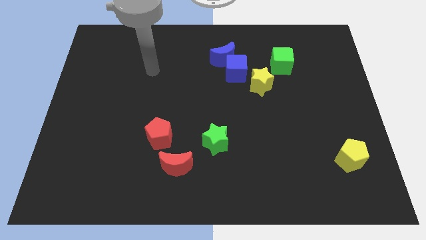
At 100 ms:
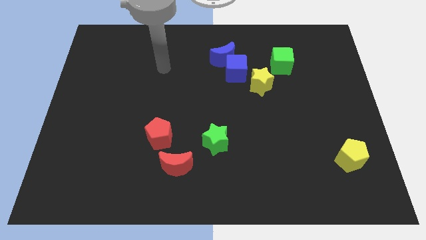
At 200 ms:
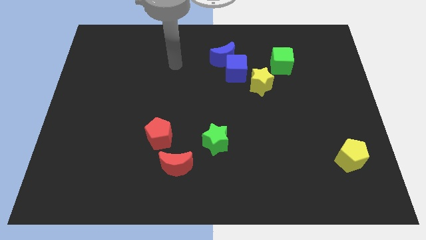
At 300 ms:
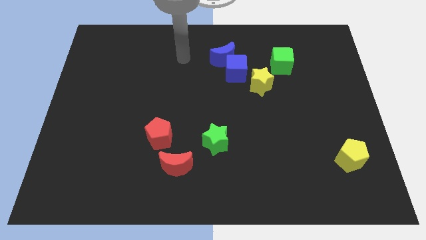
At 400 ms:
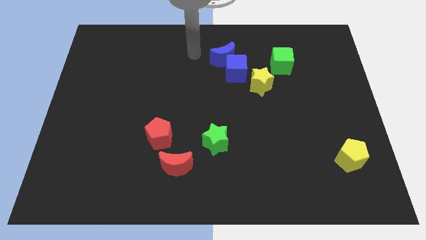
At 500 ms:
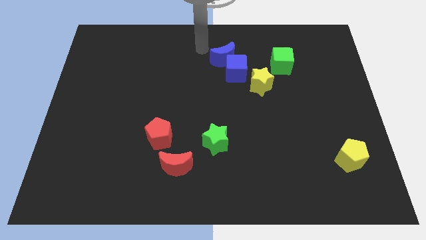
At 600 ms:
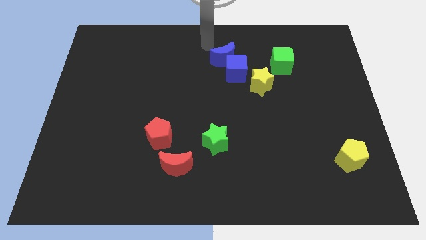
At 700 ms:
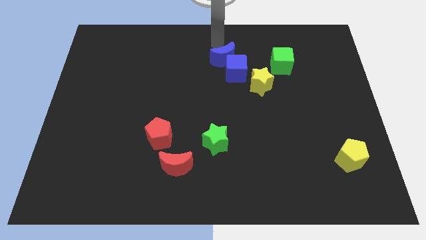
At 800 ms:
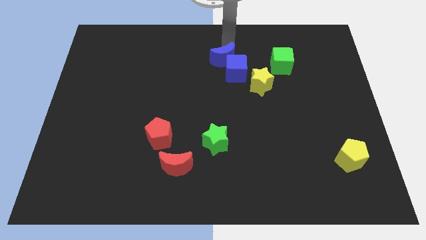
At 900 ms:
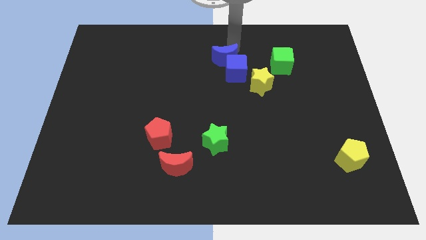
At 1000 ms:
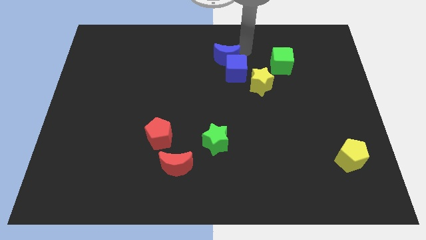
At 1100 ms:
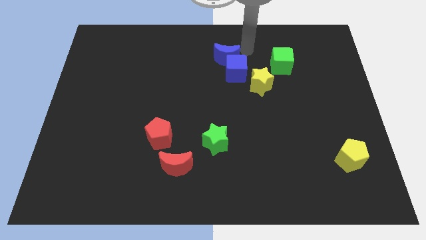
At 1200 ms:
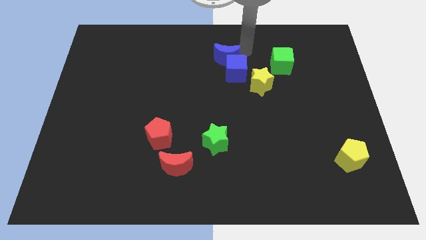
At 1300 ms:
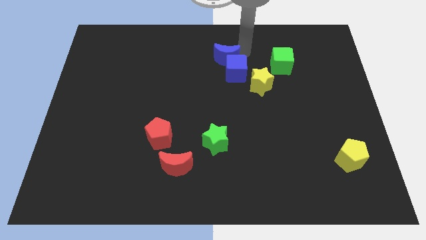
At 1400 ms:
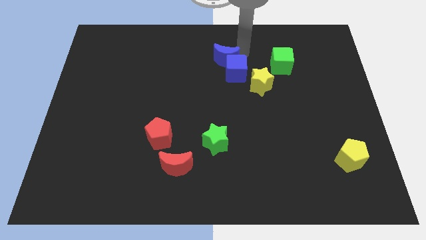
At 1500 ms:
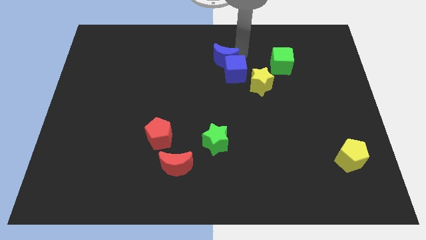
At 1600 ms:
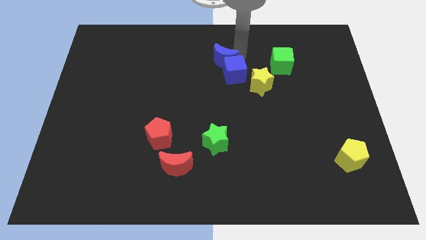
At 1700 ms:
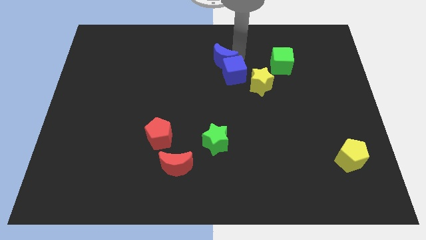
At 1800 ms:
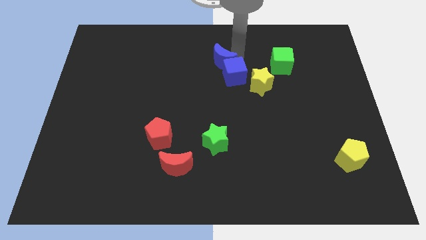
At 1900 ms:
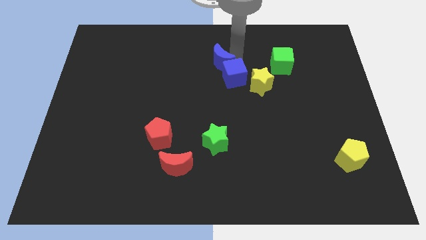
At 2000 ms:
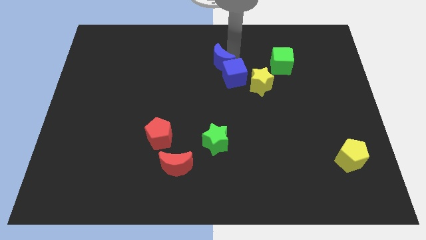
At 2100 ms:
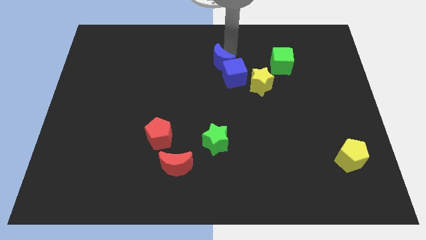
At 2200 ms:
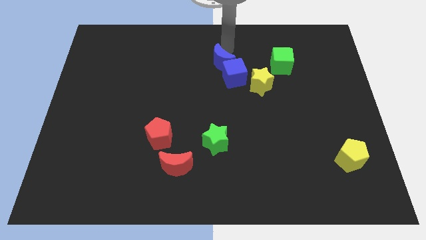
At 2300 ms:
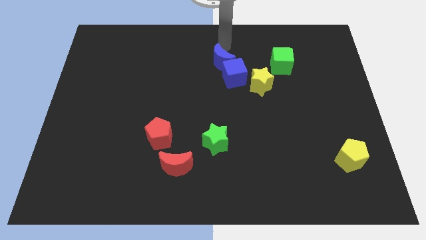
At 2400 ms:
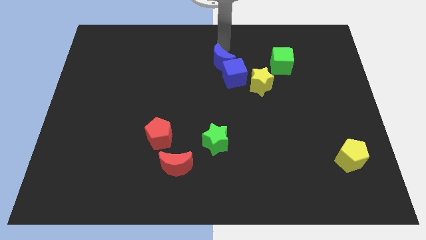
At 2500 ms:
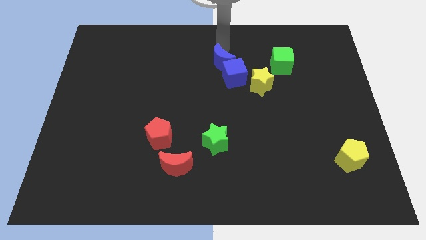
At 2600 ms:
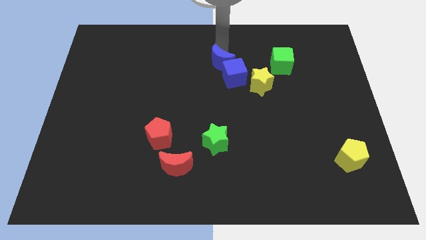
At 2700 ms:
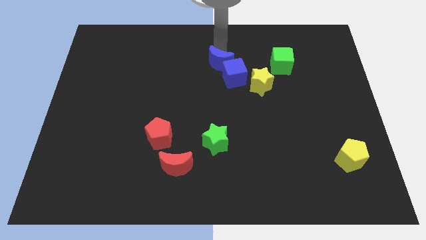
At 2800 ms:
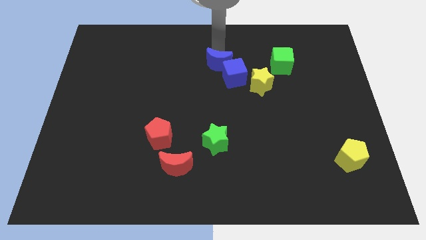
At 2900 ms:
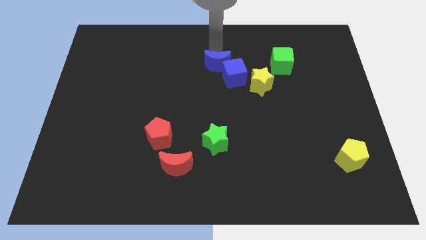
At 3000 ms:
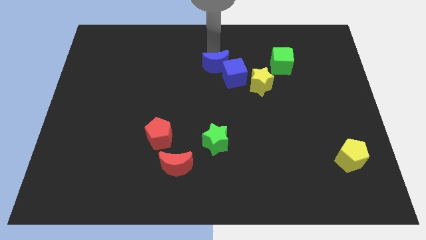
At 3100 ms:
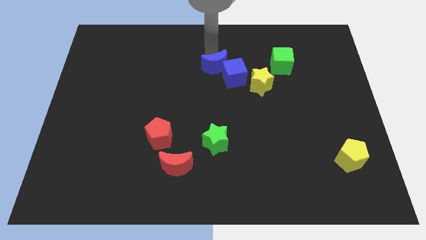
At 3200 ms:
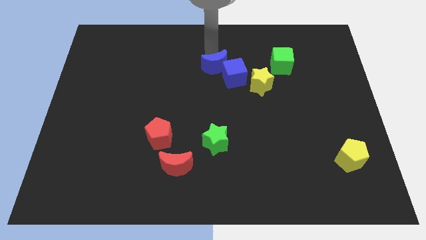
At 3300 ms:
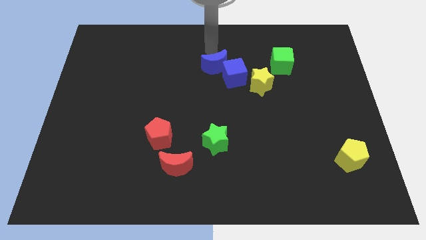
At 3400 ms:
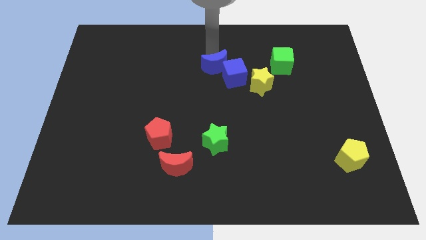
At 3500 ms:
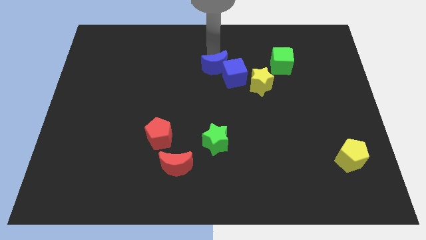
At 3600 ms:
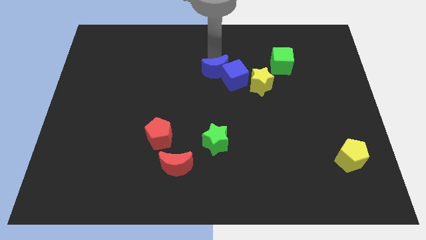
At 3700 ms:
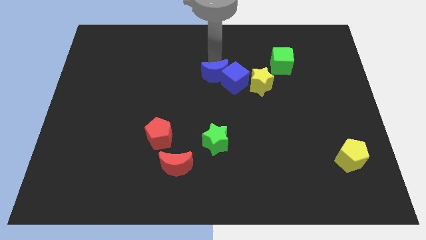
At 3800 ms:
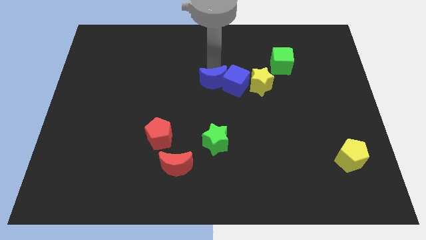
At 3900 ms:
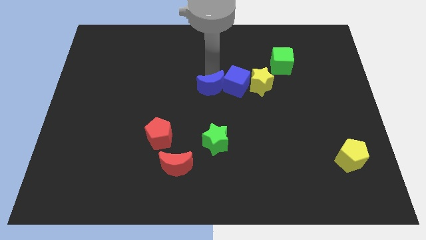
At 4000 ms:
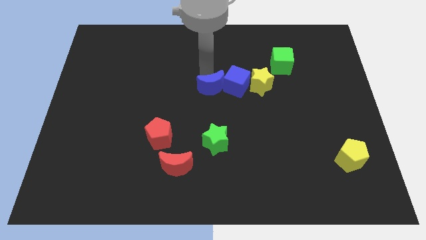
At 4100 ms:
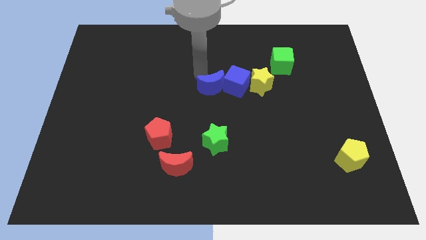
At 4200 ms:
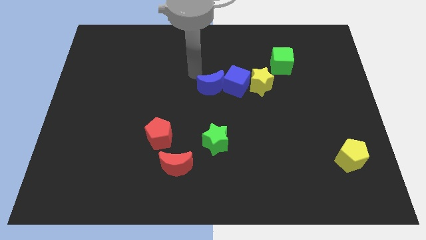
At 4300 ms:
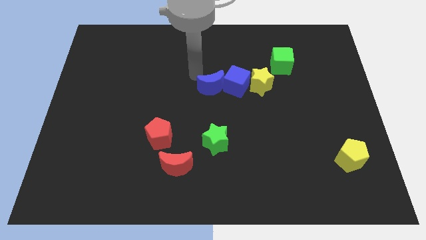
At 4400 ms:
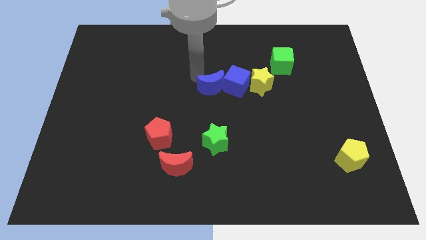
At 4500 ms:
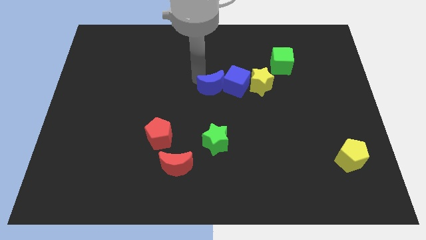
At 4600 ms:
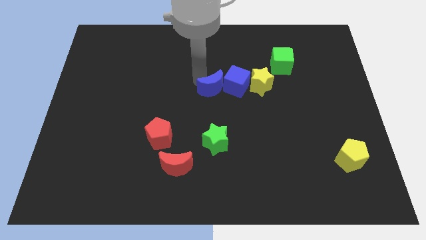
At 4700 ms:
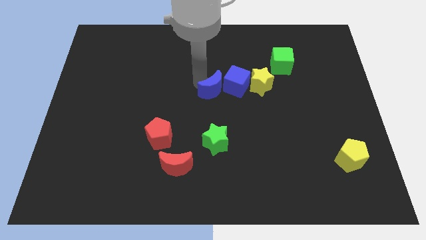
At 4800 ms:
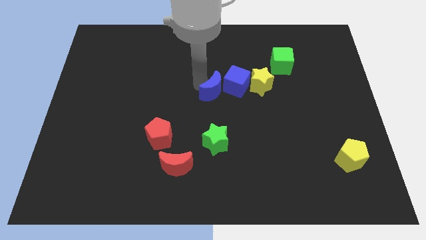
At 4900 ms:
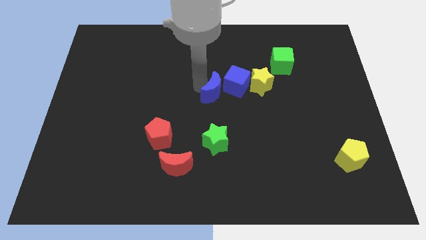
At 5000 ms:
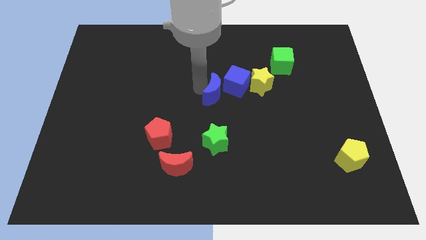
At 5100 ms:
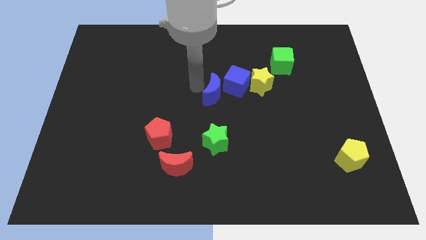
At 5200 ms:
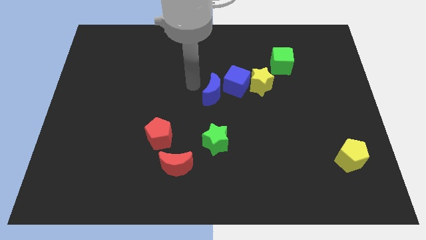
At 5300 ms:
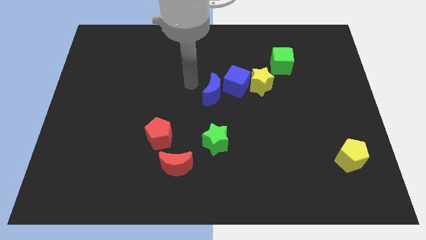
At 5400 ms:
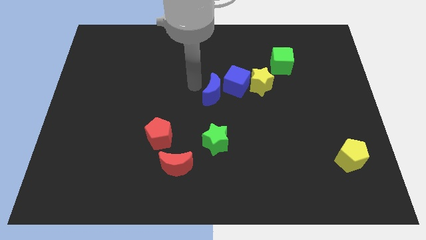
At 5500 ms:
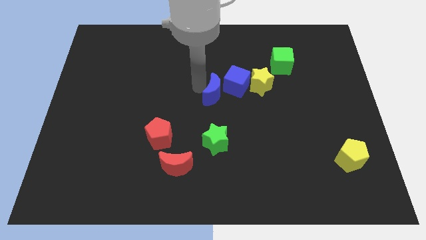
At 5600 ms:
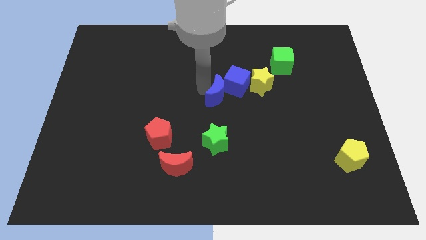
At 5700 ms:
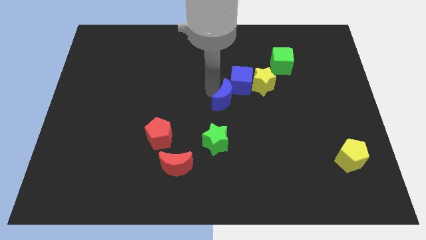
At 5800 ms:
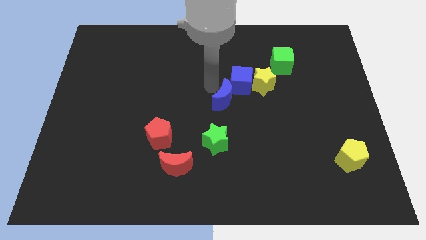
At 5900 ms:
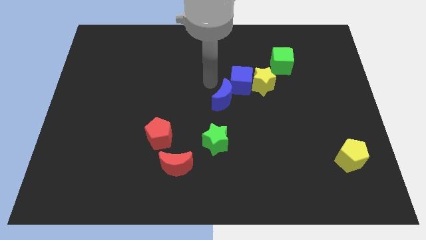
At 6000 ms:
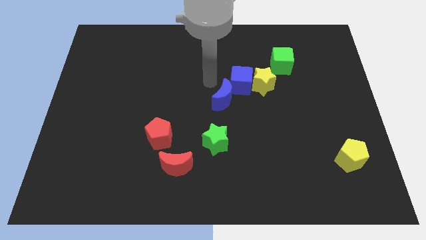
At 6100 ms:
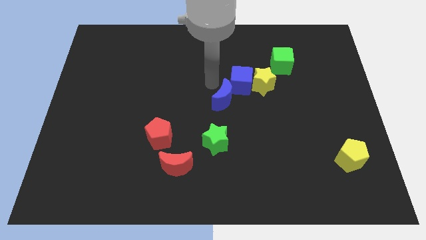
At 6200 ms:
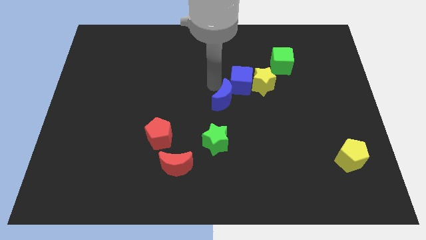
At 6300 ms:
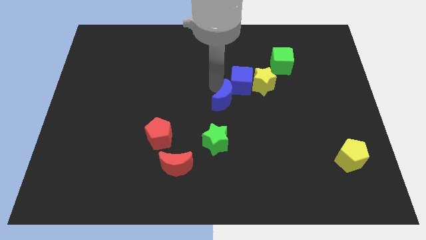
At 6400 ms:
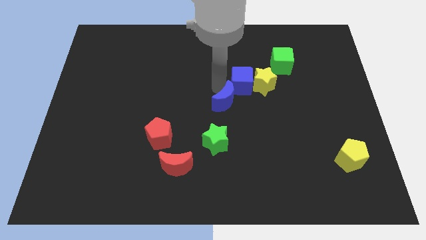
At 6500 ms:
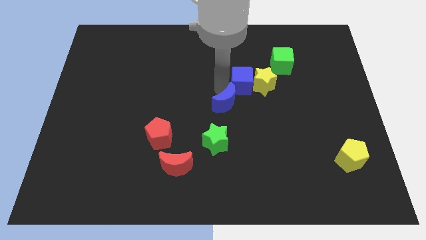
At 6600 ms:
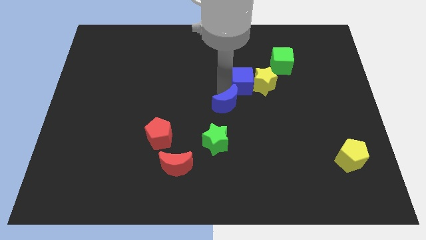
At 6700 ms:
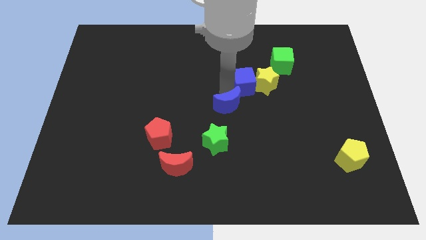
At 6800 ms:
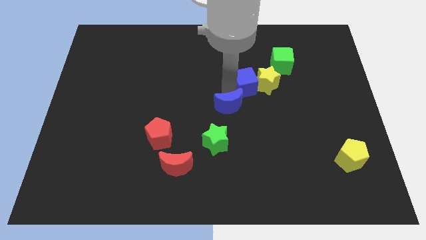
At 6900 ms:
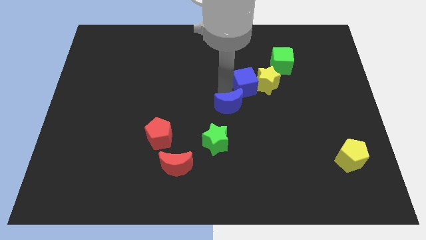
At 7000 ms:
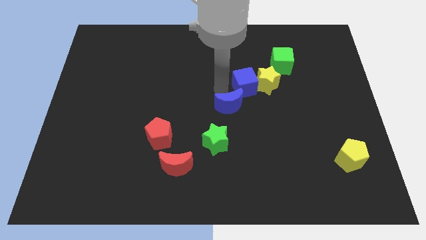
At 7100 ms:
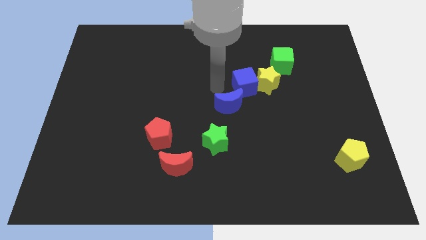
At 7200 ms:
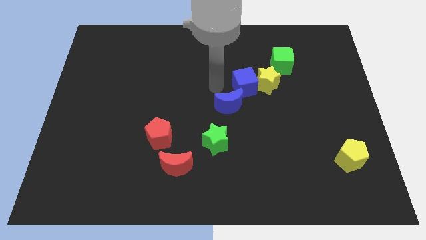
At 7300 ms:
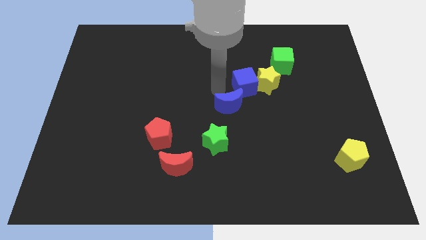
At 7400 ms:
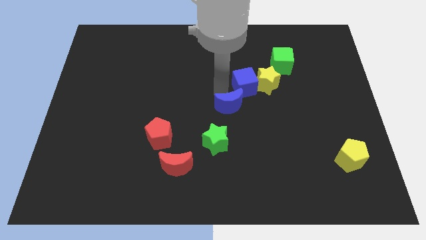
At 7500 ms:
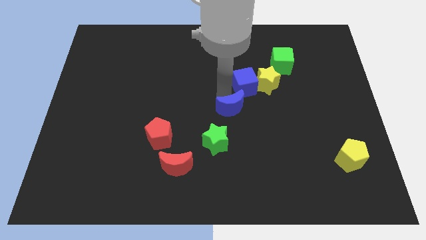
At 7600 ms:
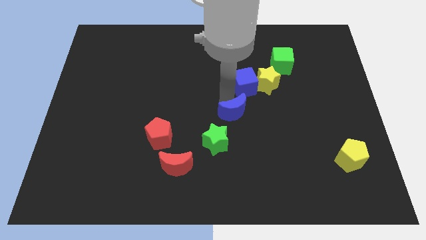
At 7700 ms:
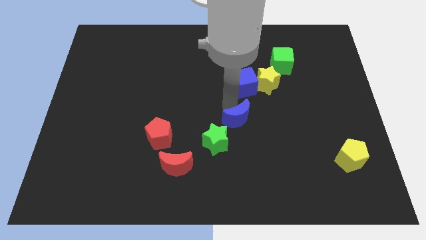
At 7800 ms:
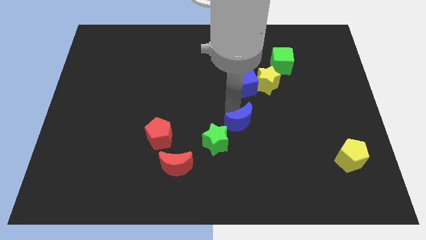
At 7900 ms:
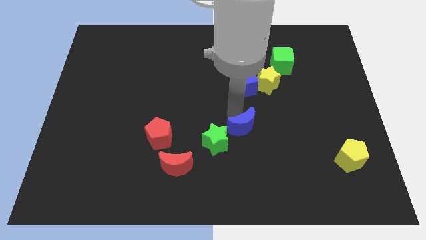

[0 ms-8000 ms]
put the blue moon right of the green star
